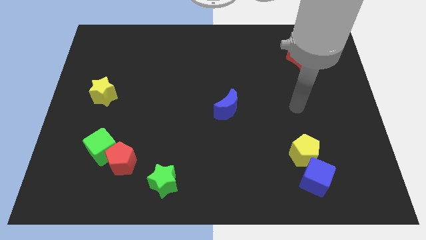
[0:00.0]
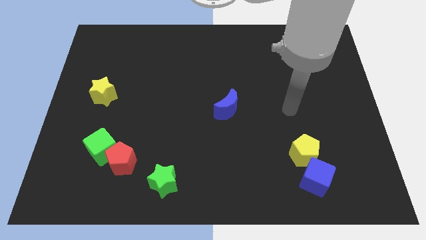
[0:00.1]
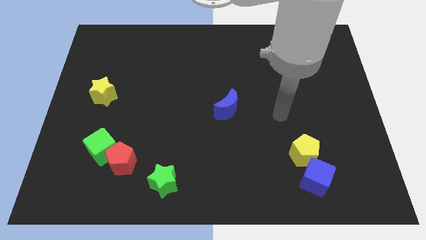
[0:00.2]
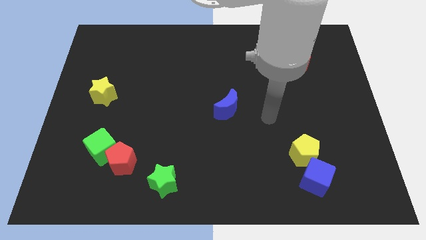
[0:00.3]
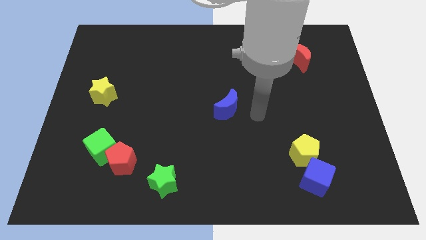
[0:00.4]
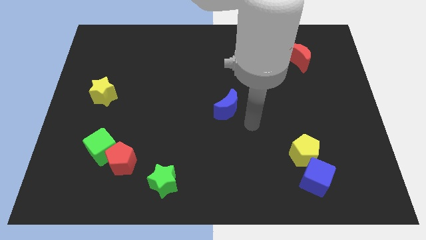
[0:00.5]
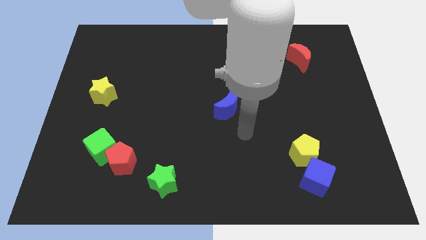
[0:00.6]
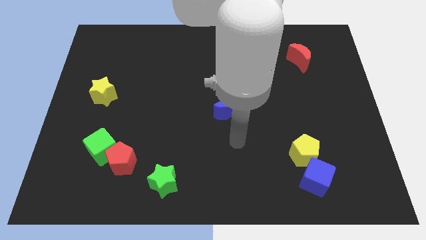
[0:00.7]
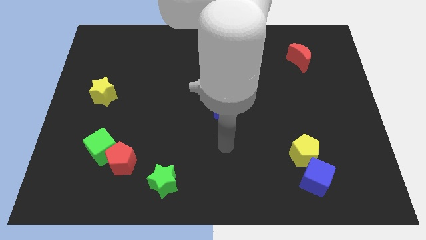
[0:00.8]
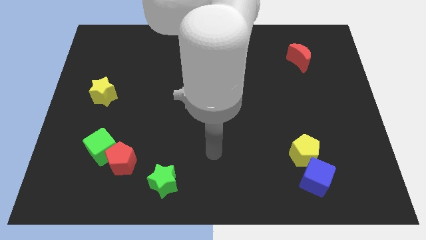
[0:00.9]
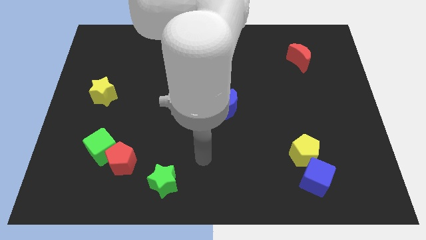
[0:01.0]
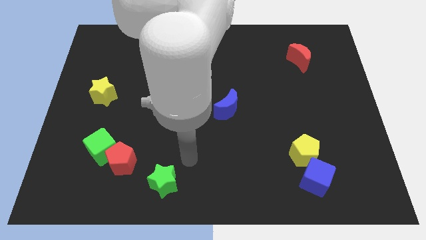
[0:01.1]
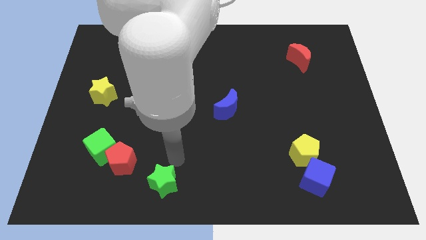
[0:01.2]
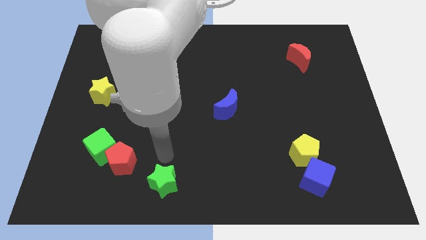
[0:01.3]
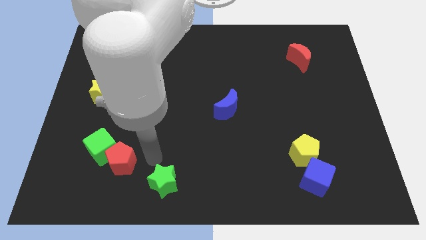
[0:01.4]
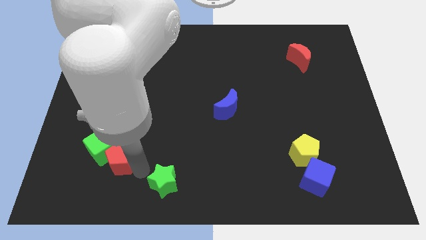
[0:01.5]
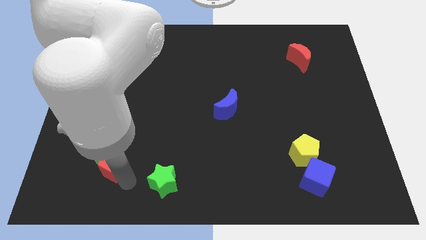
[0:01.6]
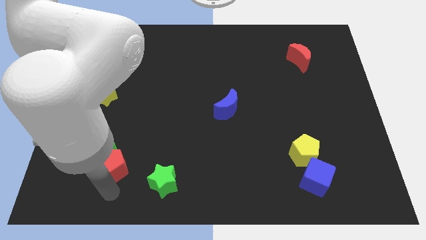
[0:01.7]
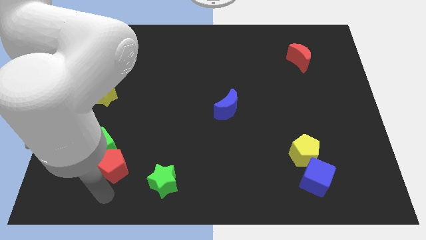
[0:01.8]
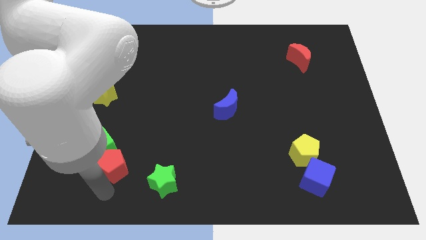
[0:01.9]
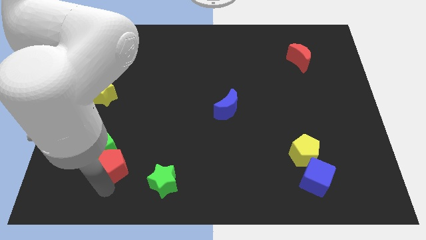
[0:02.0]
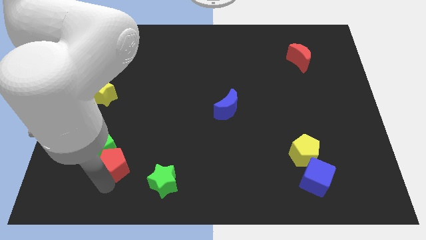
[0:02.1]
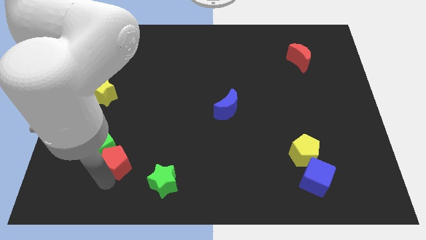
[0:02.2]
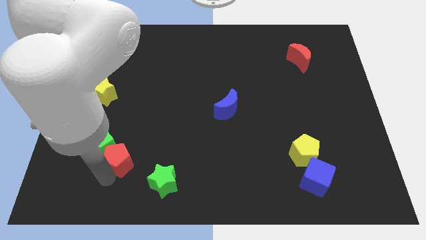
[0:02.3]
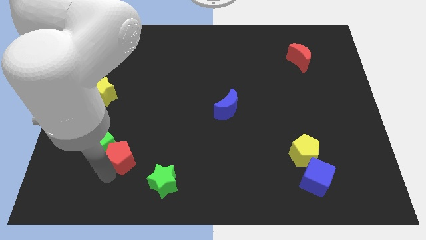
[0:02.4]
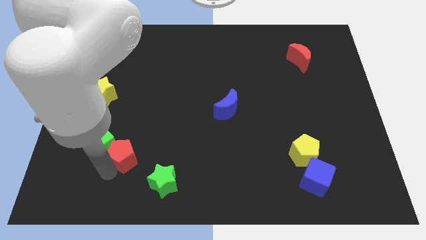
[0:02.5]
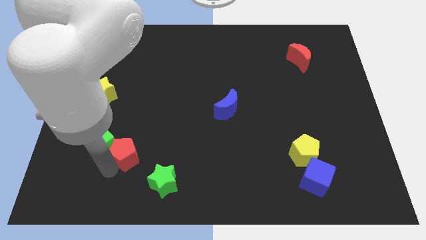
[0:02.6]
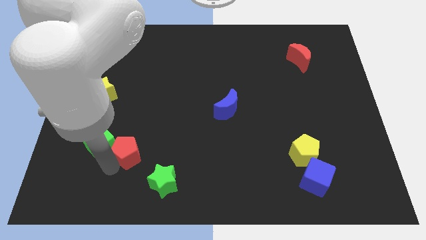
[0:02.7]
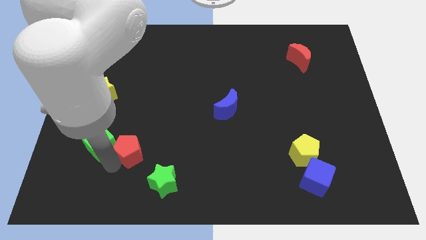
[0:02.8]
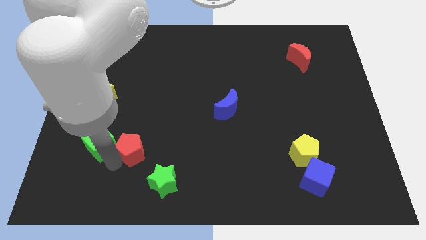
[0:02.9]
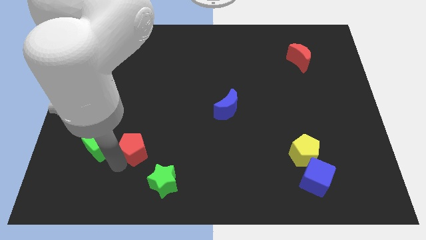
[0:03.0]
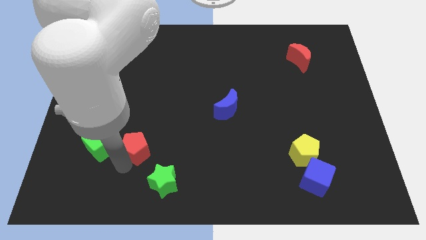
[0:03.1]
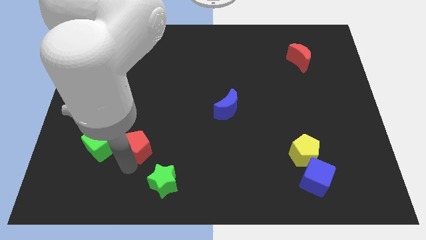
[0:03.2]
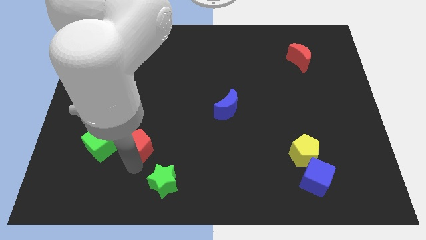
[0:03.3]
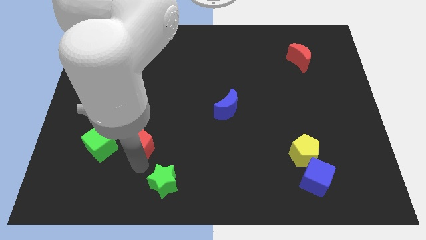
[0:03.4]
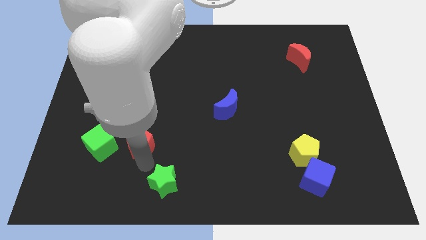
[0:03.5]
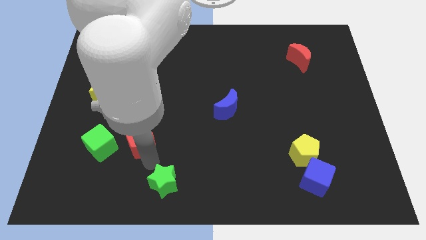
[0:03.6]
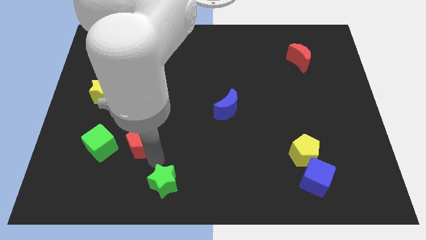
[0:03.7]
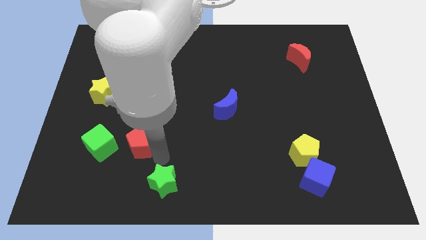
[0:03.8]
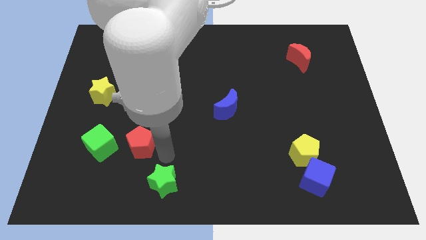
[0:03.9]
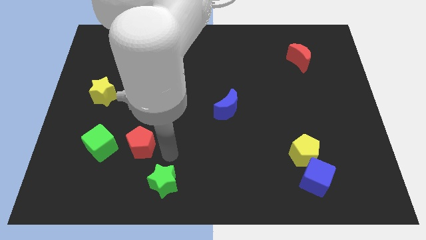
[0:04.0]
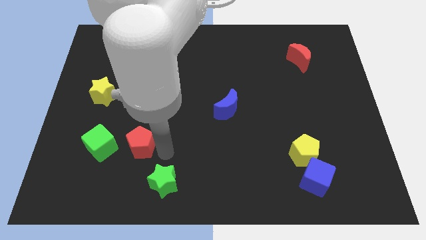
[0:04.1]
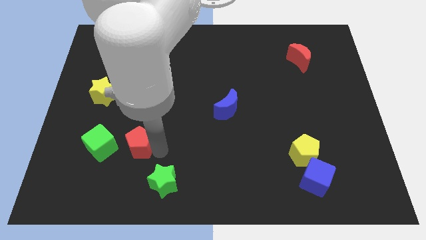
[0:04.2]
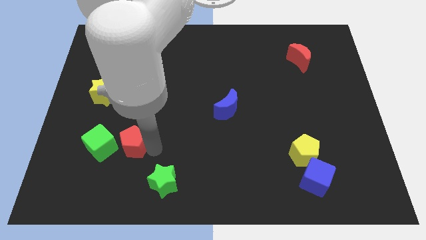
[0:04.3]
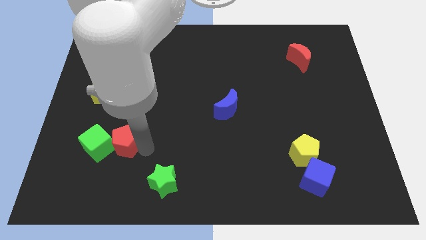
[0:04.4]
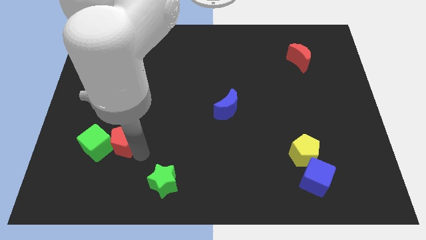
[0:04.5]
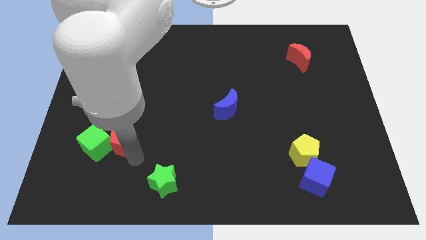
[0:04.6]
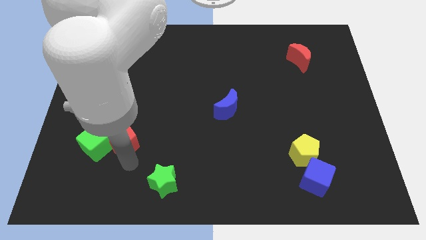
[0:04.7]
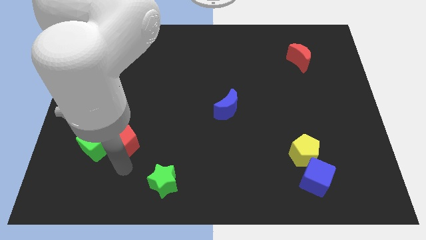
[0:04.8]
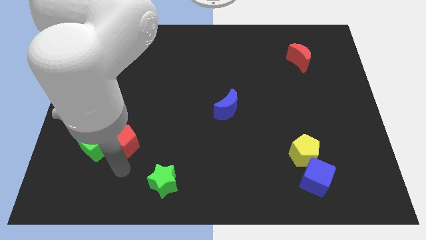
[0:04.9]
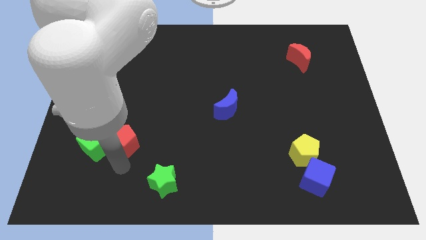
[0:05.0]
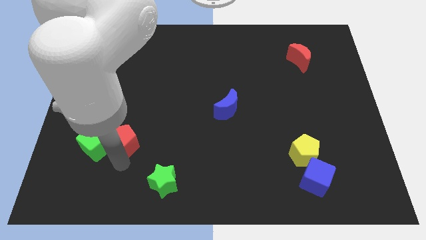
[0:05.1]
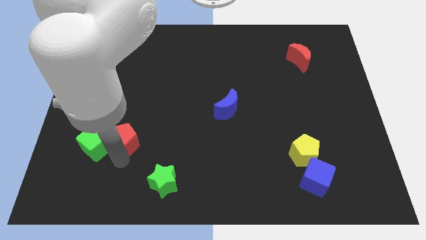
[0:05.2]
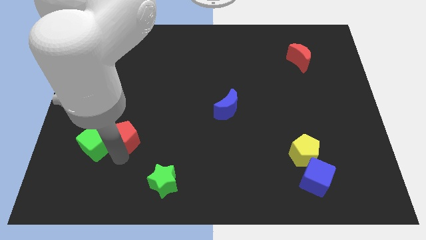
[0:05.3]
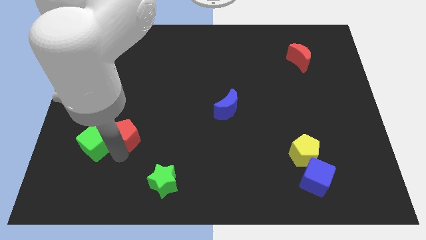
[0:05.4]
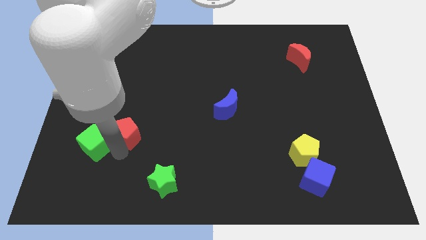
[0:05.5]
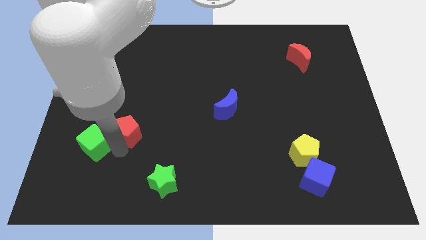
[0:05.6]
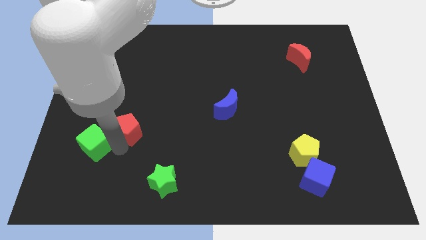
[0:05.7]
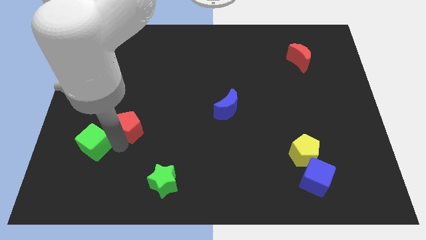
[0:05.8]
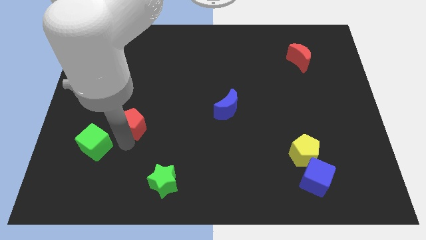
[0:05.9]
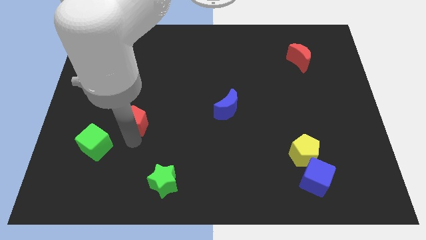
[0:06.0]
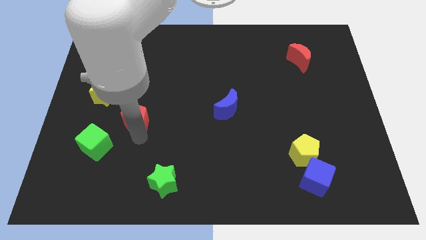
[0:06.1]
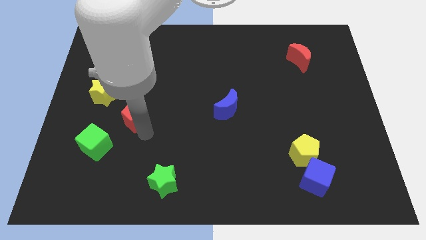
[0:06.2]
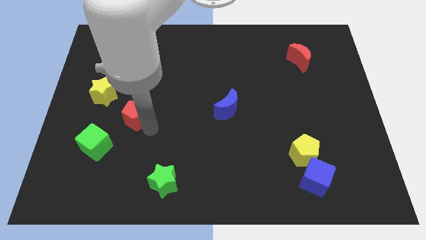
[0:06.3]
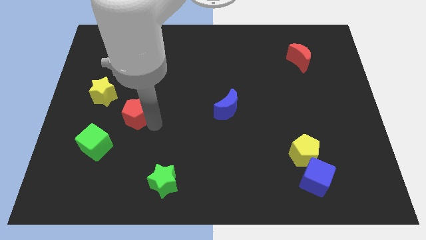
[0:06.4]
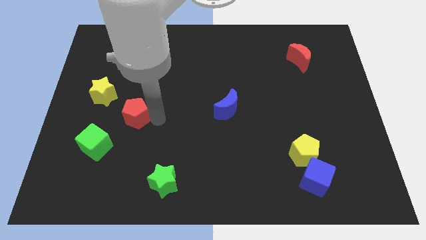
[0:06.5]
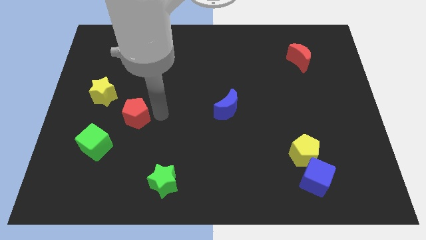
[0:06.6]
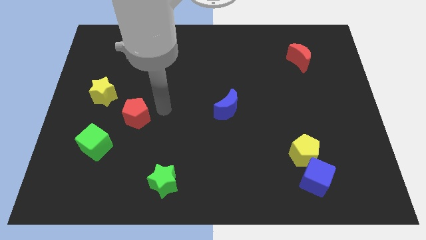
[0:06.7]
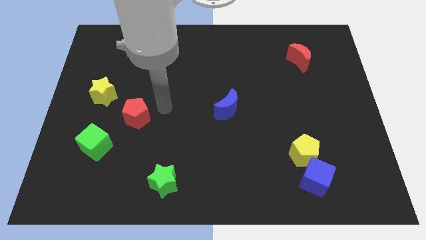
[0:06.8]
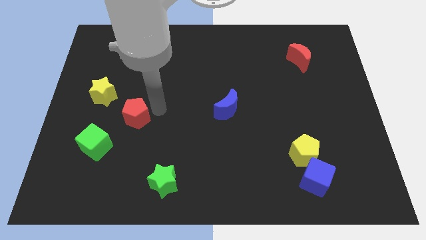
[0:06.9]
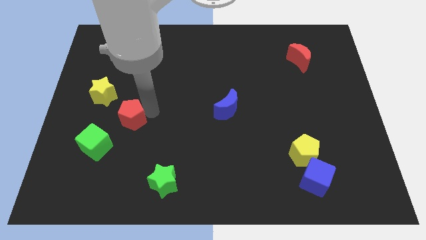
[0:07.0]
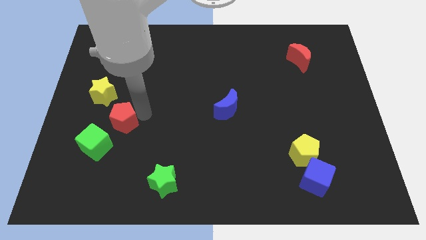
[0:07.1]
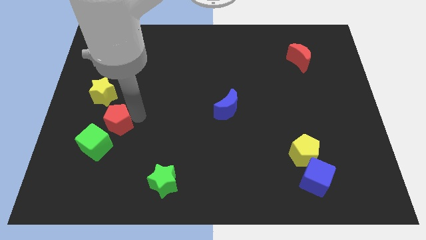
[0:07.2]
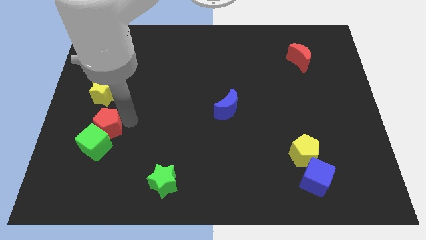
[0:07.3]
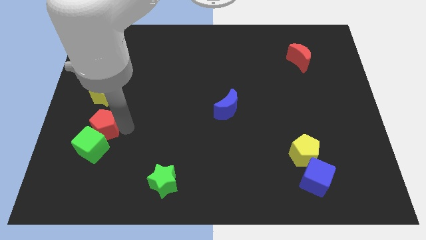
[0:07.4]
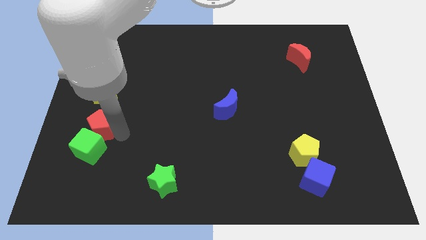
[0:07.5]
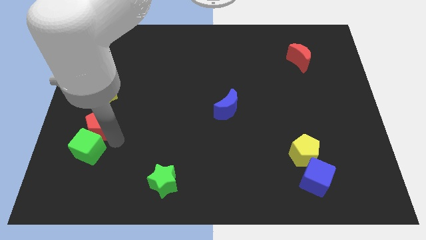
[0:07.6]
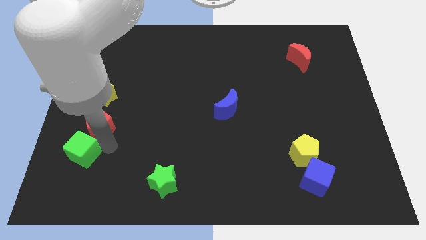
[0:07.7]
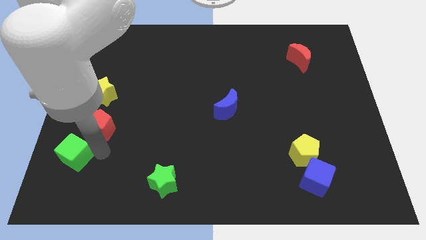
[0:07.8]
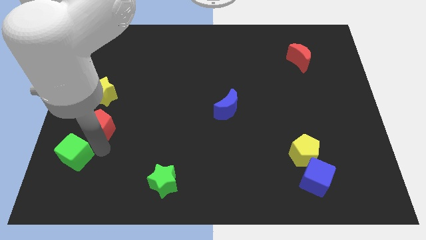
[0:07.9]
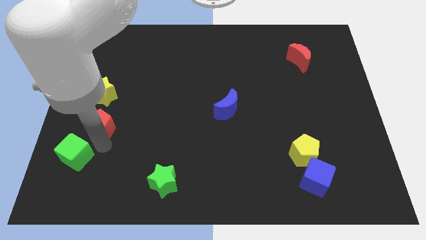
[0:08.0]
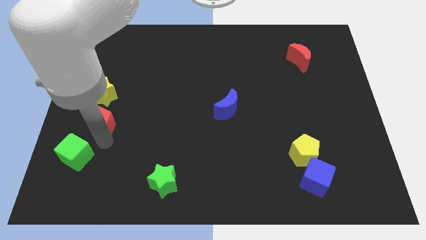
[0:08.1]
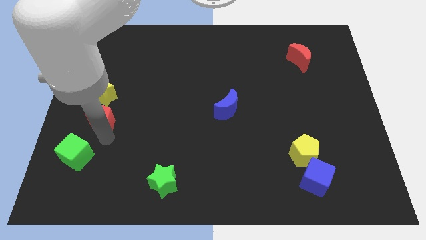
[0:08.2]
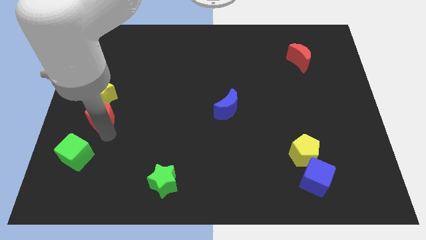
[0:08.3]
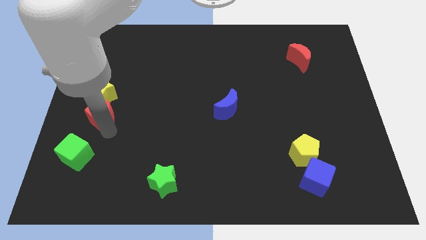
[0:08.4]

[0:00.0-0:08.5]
slide the red pentagon towards the yellow star
